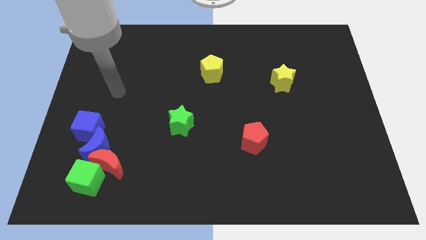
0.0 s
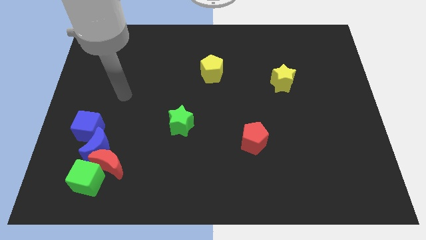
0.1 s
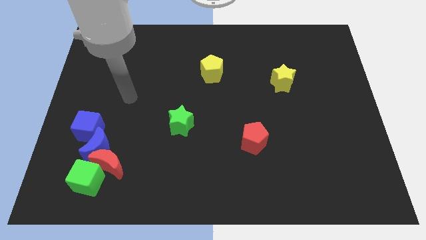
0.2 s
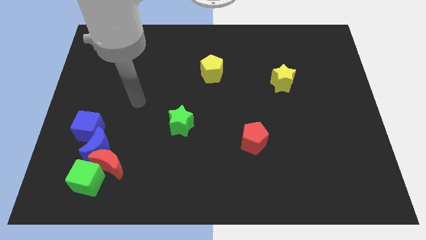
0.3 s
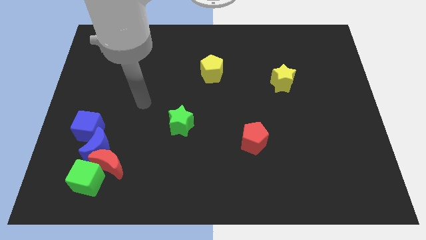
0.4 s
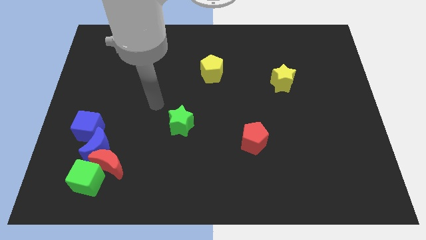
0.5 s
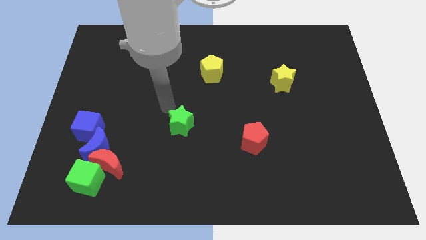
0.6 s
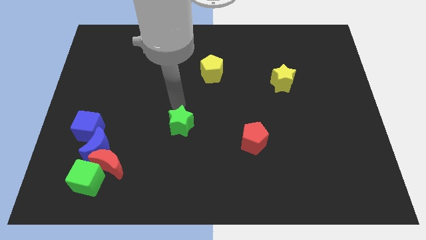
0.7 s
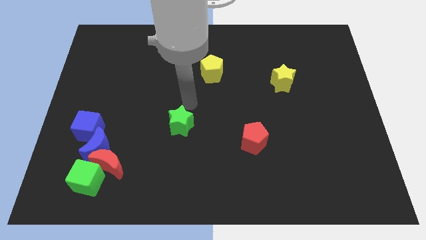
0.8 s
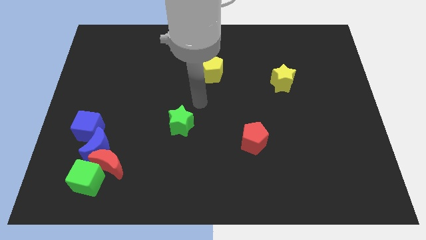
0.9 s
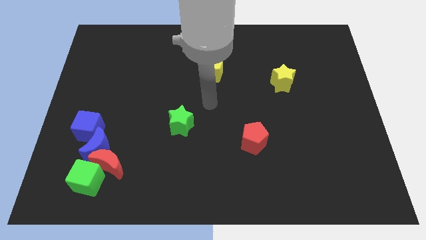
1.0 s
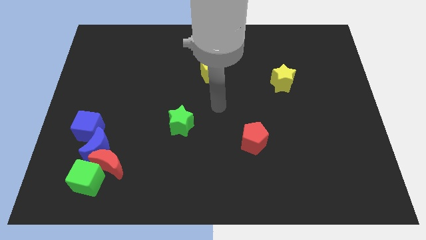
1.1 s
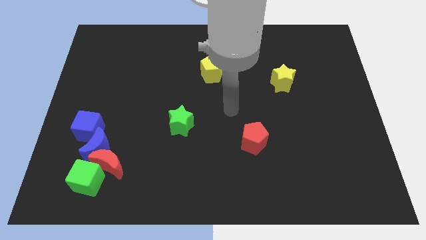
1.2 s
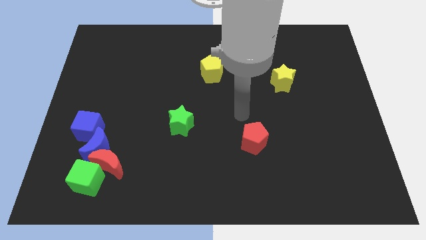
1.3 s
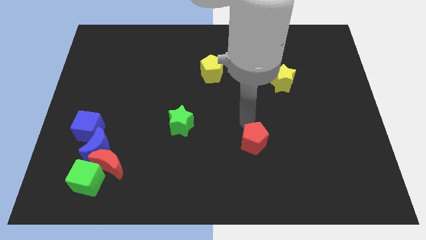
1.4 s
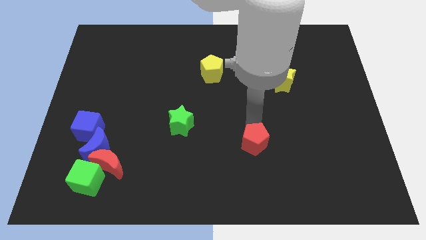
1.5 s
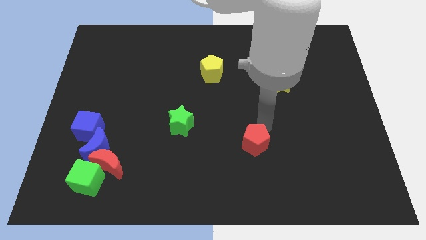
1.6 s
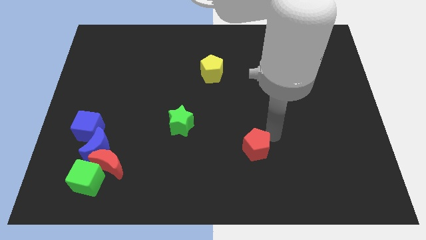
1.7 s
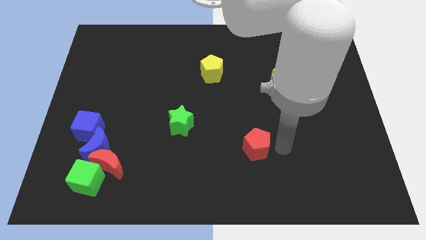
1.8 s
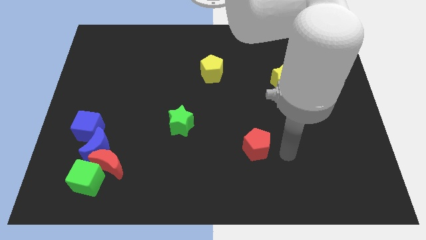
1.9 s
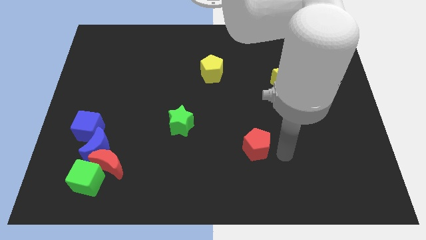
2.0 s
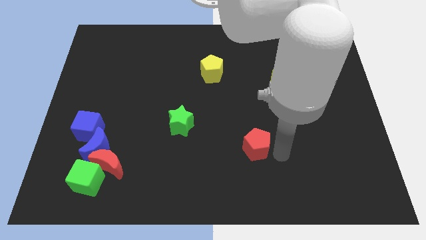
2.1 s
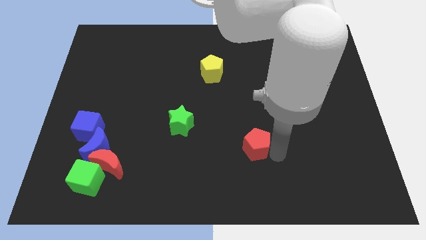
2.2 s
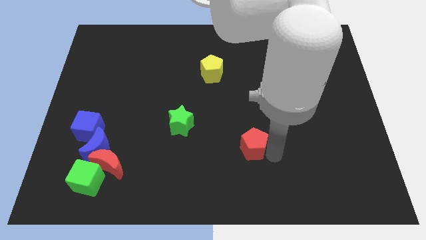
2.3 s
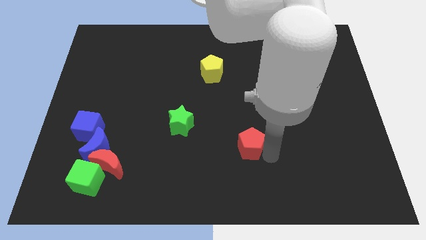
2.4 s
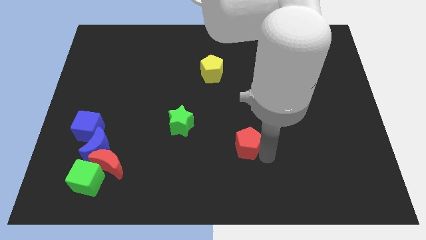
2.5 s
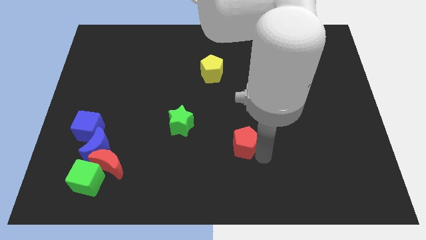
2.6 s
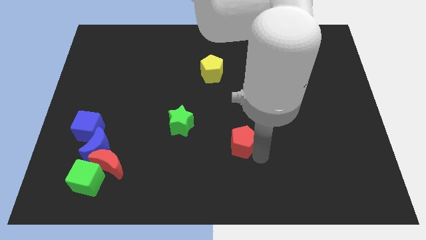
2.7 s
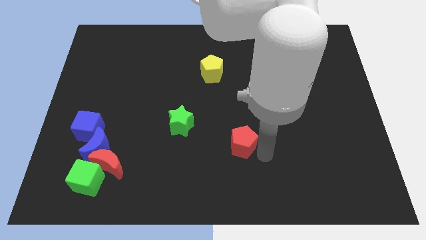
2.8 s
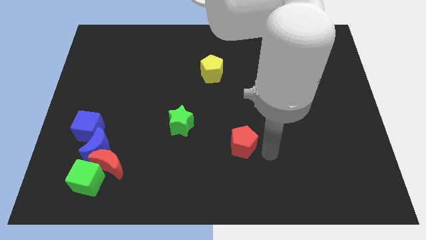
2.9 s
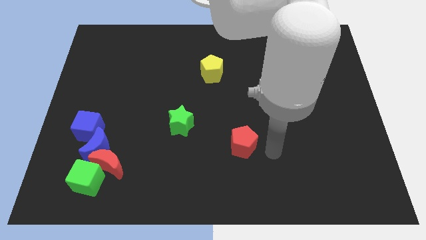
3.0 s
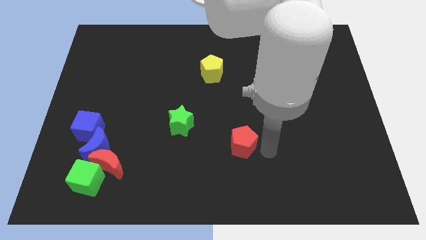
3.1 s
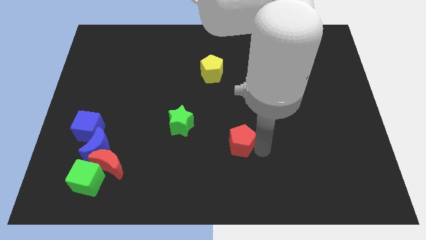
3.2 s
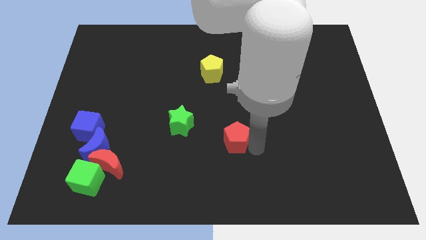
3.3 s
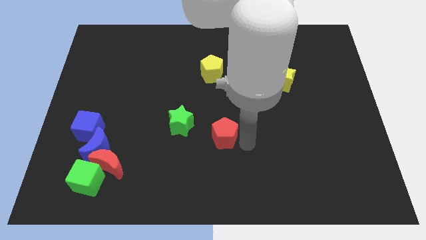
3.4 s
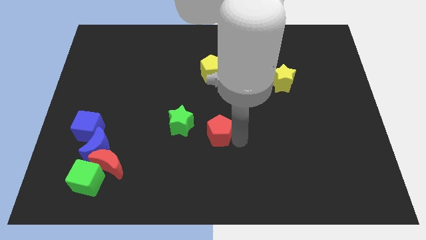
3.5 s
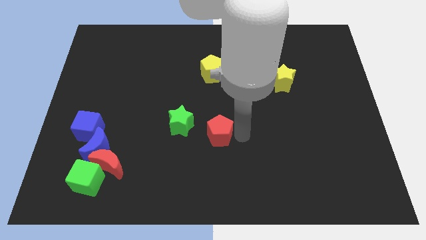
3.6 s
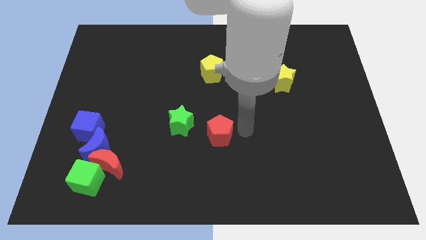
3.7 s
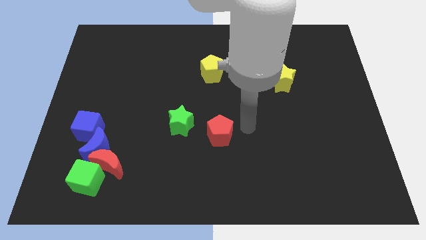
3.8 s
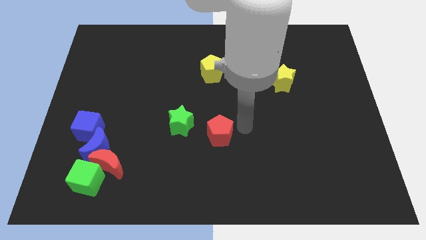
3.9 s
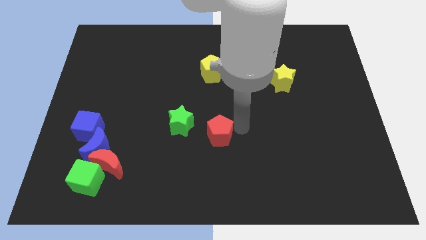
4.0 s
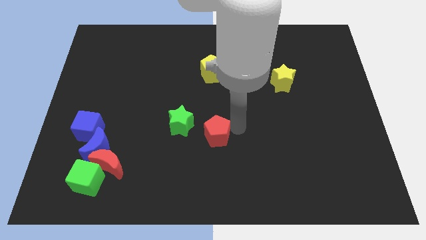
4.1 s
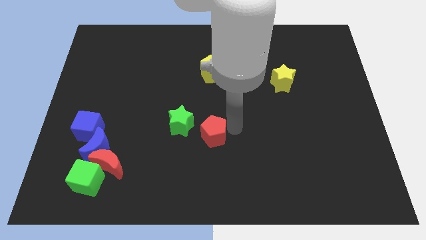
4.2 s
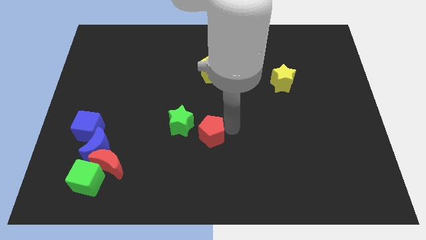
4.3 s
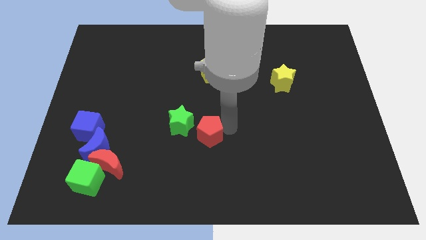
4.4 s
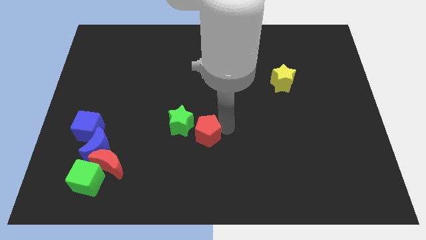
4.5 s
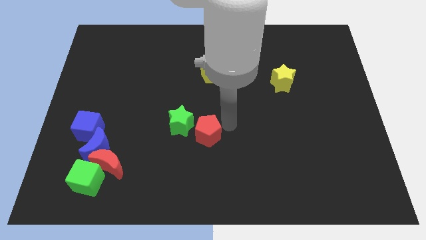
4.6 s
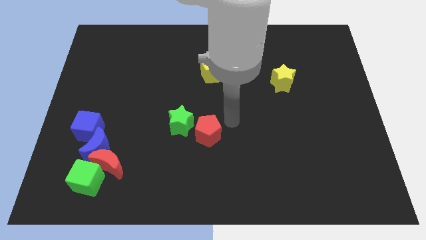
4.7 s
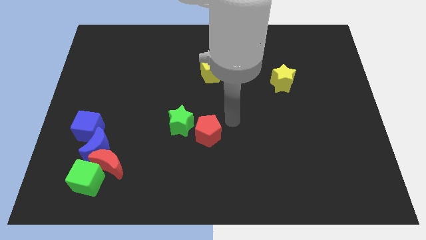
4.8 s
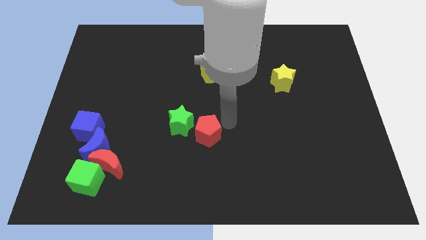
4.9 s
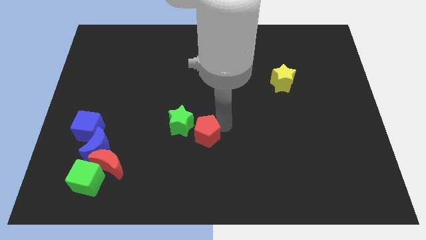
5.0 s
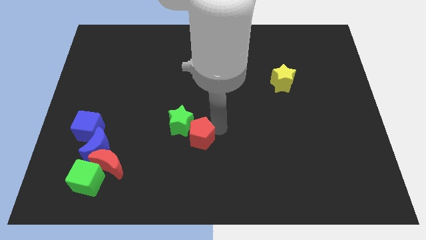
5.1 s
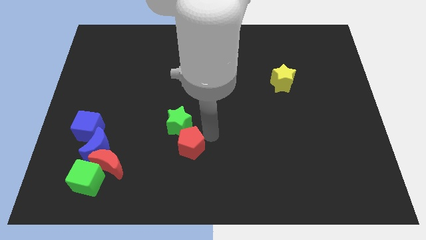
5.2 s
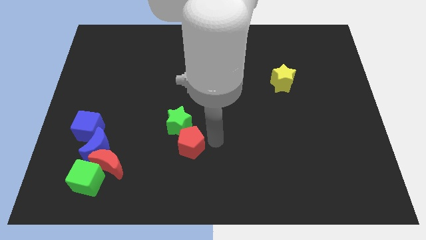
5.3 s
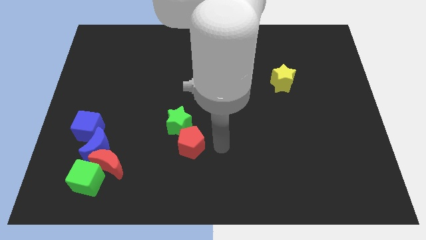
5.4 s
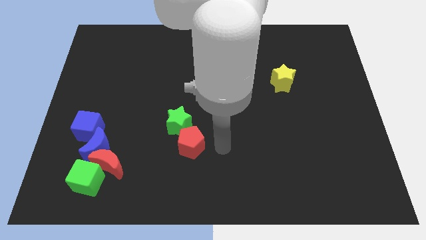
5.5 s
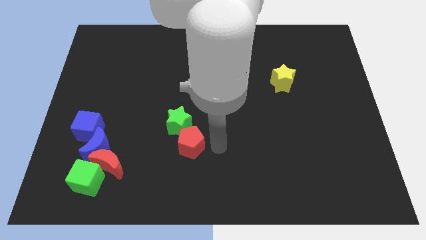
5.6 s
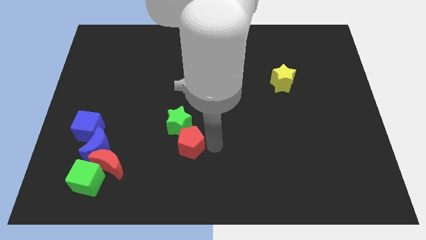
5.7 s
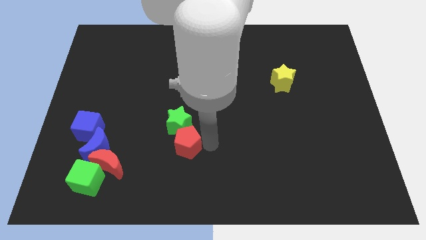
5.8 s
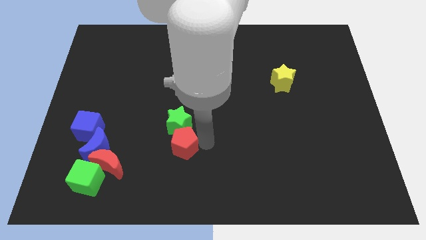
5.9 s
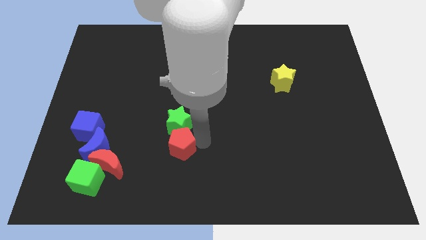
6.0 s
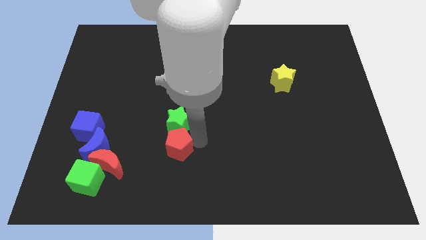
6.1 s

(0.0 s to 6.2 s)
put the red pentagon to the bottom left of the green star

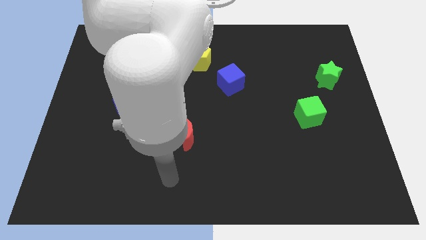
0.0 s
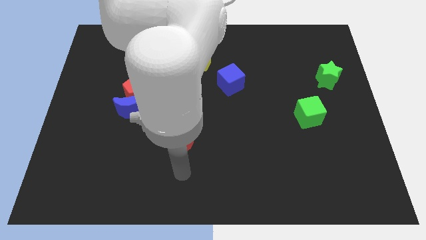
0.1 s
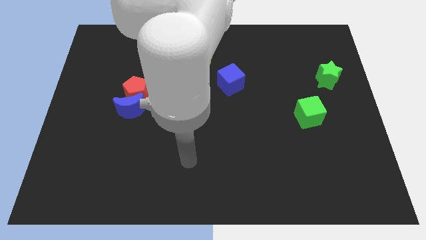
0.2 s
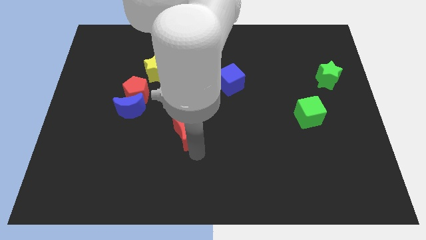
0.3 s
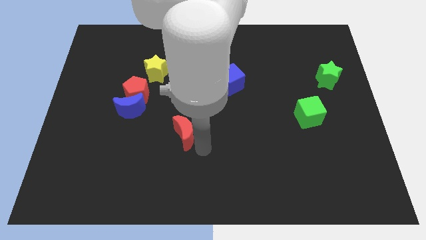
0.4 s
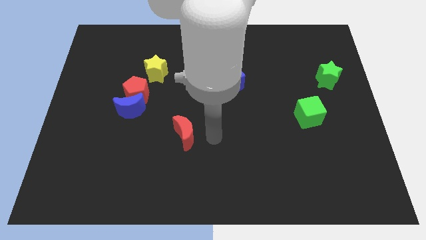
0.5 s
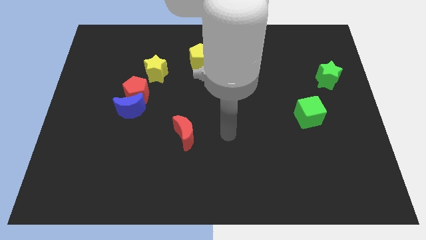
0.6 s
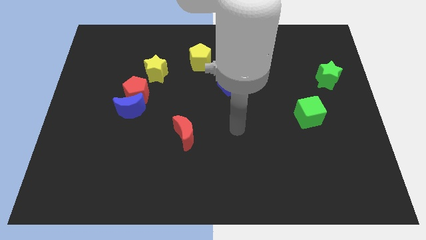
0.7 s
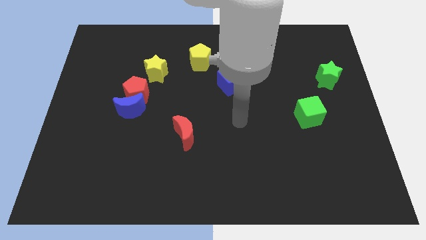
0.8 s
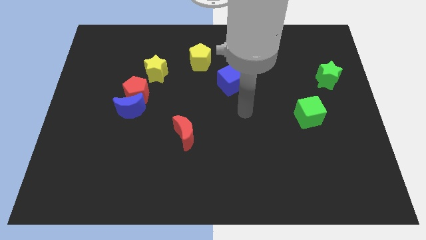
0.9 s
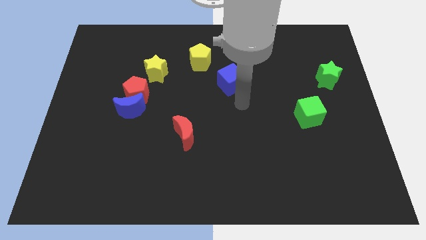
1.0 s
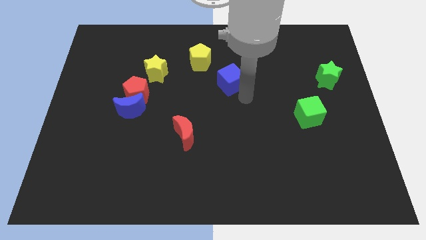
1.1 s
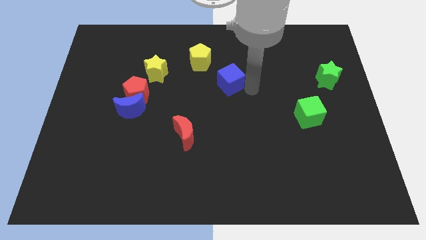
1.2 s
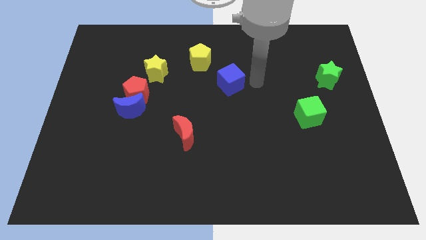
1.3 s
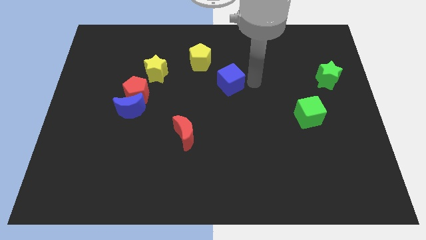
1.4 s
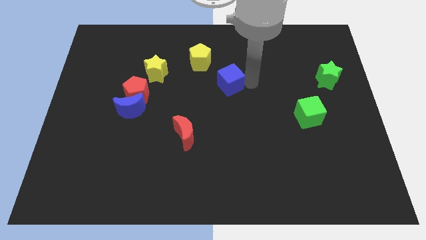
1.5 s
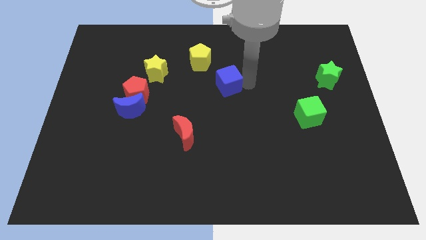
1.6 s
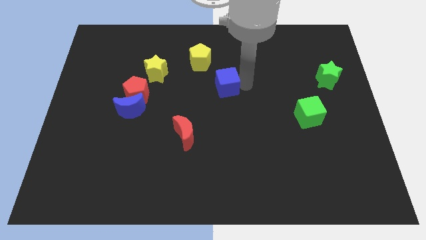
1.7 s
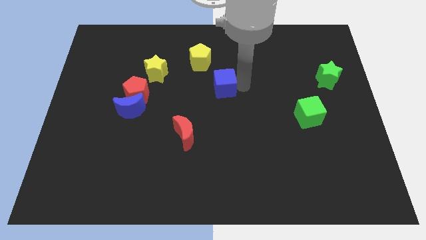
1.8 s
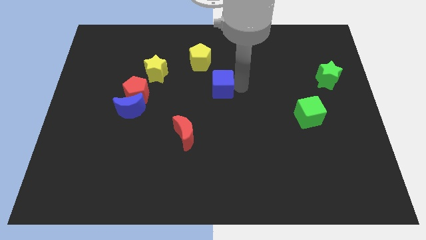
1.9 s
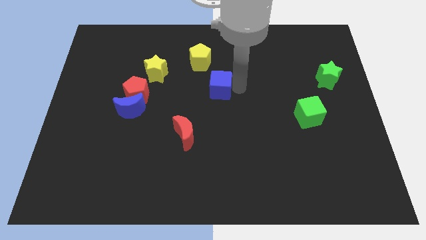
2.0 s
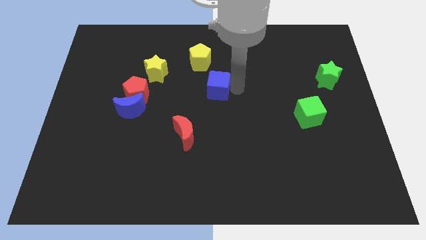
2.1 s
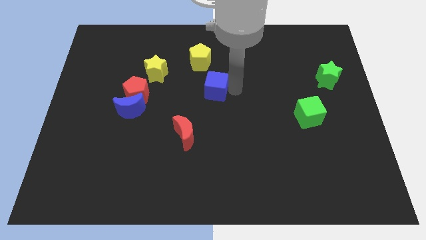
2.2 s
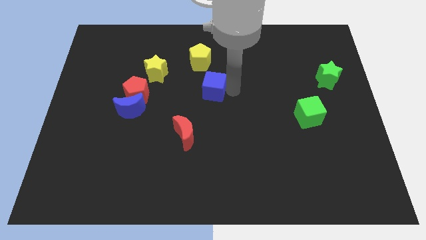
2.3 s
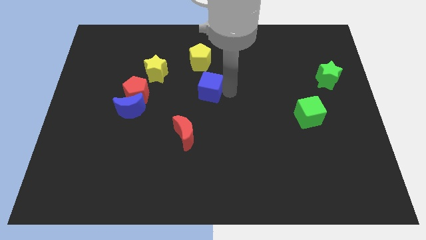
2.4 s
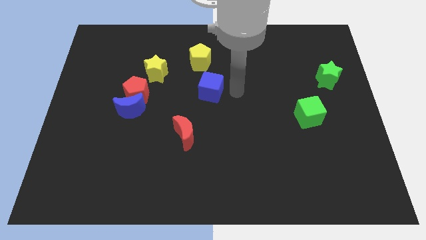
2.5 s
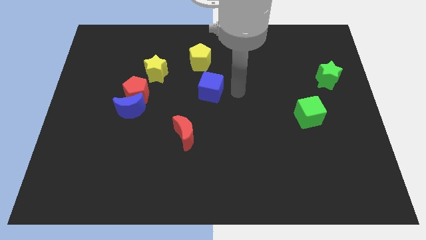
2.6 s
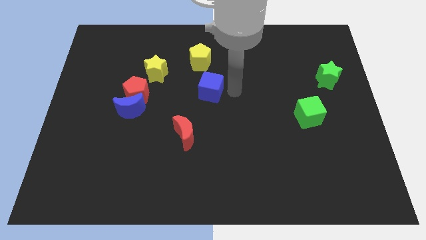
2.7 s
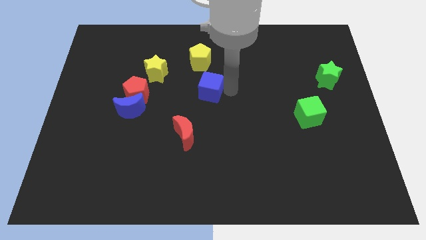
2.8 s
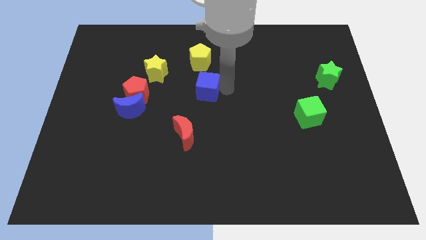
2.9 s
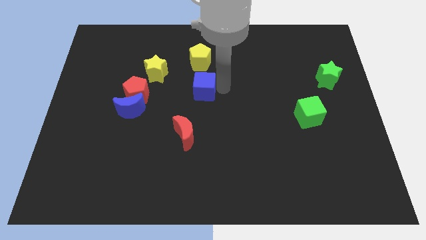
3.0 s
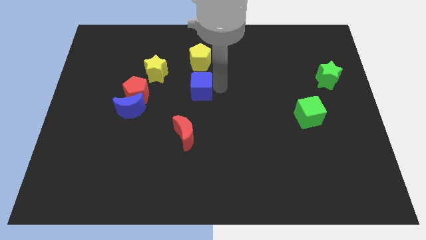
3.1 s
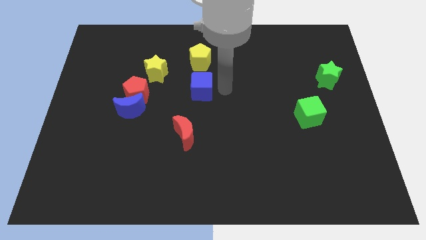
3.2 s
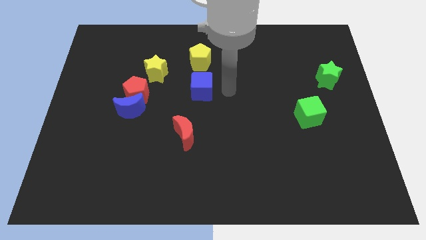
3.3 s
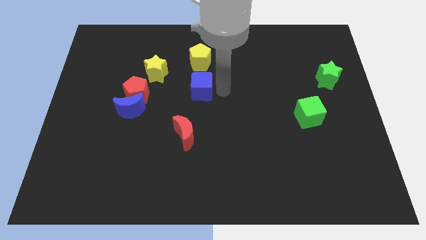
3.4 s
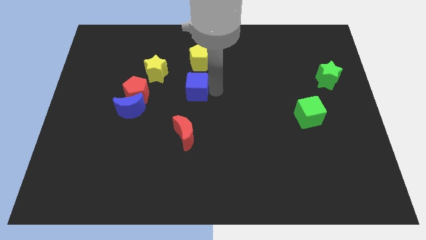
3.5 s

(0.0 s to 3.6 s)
push the blue cube diagonally down and to the right of the yellow star
